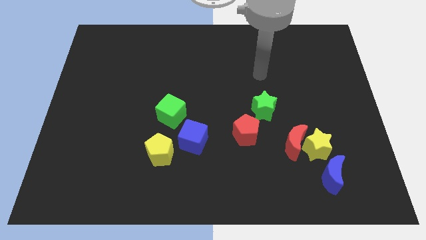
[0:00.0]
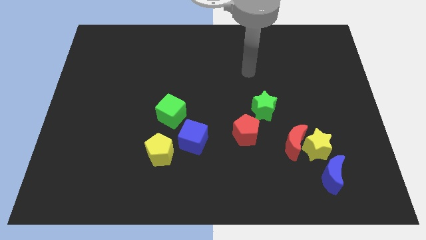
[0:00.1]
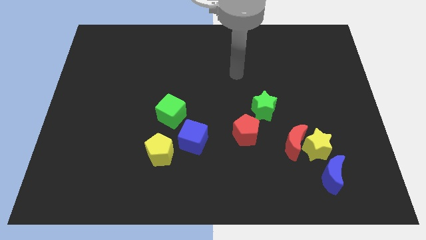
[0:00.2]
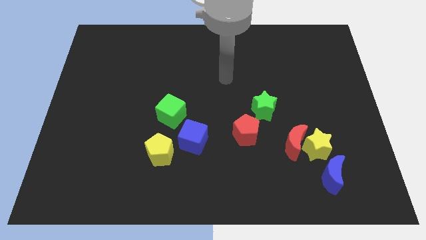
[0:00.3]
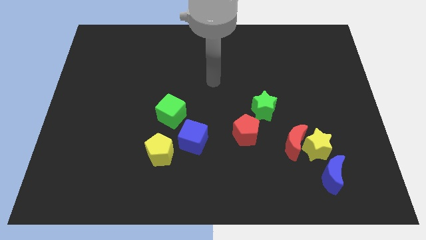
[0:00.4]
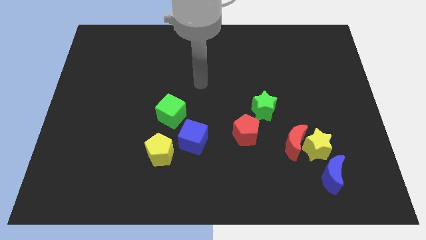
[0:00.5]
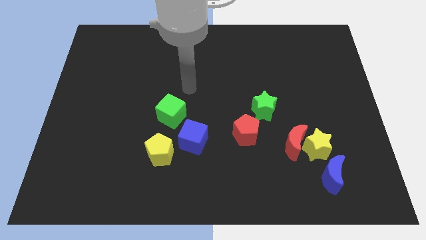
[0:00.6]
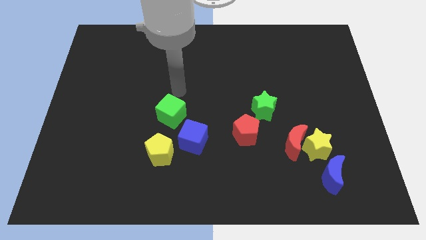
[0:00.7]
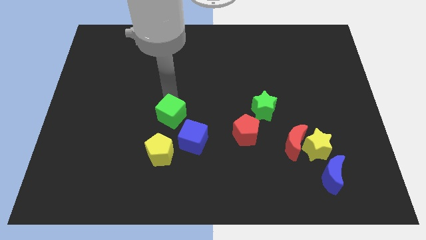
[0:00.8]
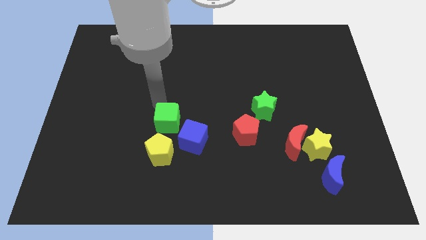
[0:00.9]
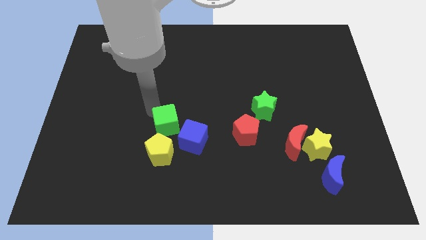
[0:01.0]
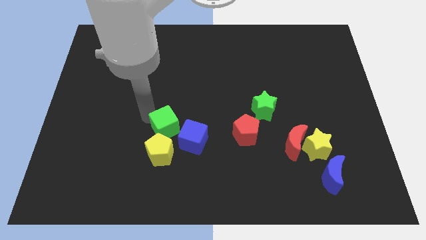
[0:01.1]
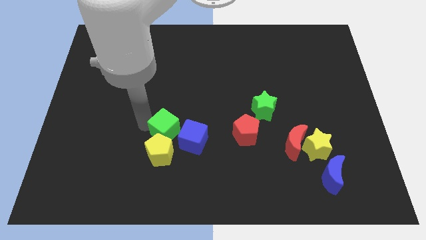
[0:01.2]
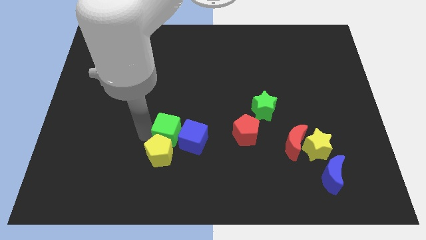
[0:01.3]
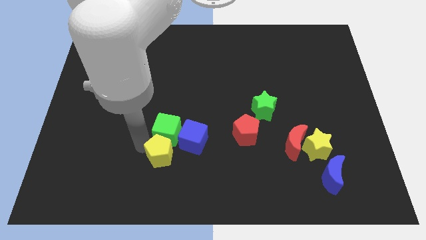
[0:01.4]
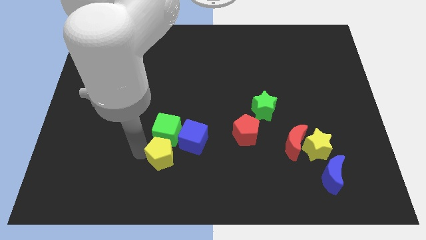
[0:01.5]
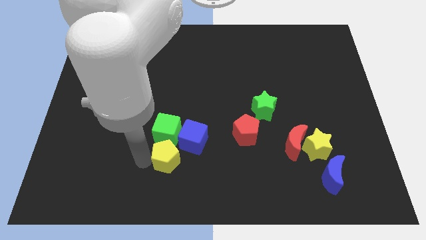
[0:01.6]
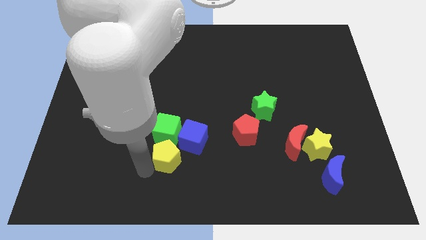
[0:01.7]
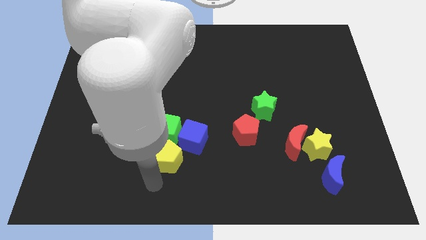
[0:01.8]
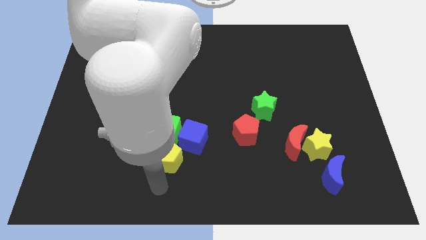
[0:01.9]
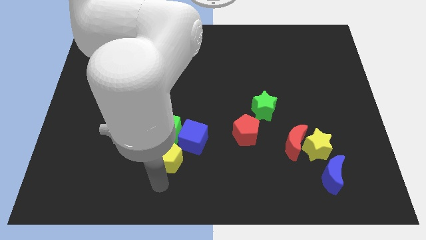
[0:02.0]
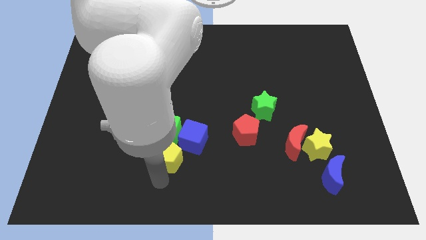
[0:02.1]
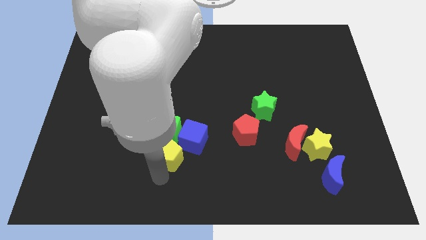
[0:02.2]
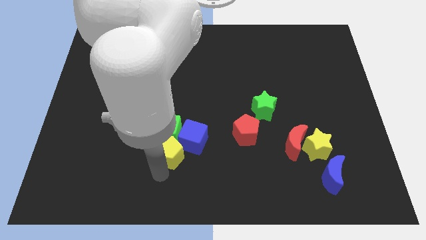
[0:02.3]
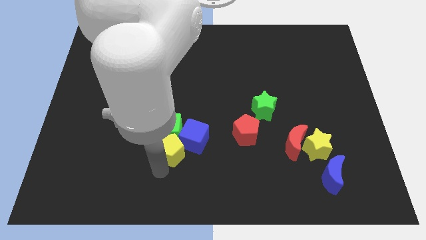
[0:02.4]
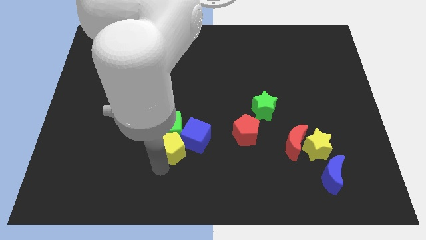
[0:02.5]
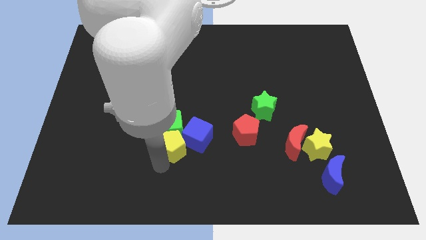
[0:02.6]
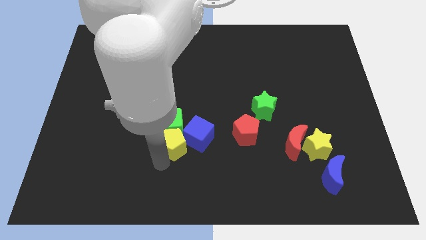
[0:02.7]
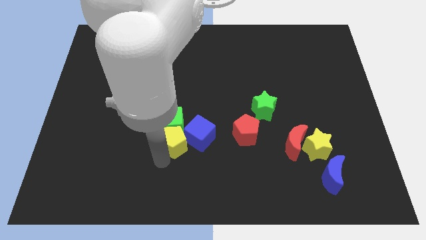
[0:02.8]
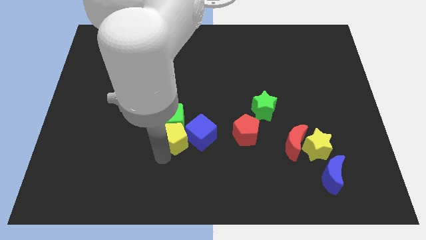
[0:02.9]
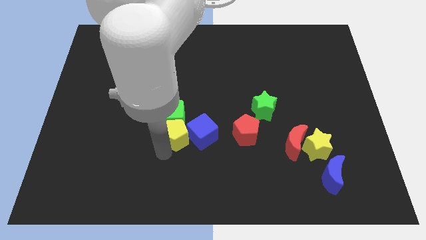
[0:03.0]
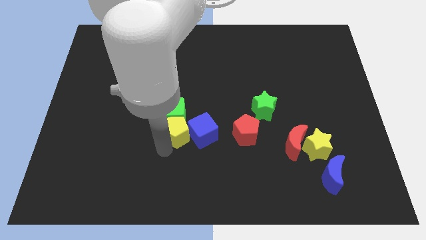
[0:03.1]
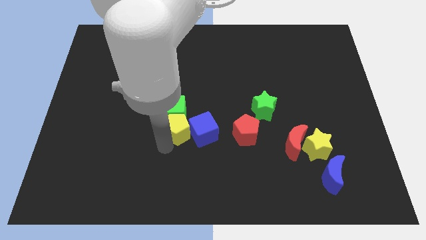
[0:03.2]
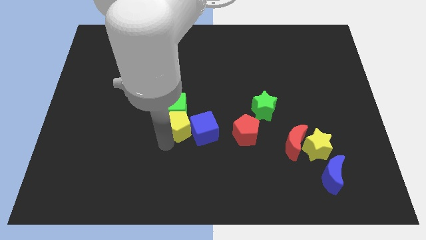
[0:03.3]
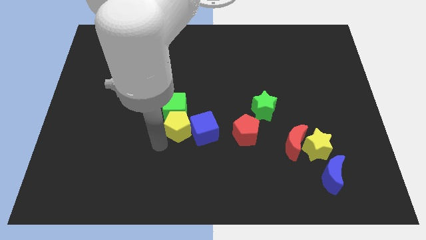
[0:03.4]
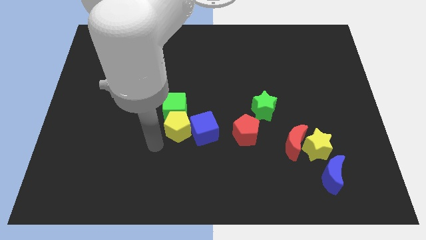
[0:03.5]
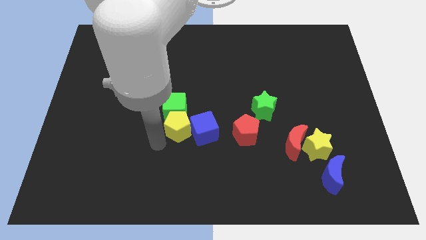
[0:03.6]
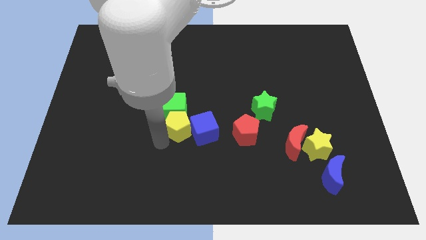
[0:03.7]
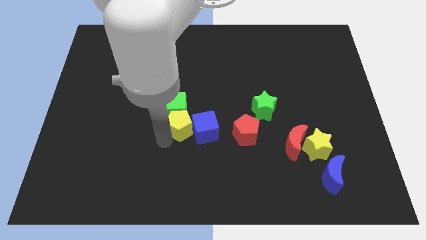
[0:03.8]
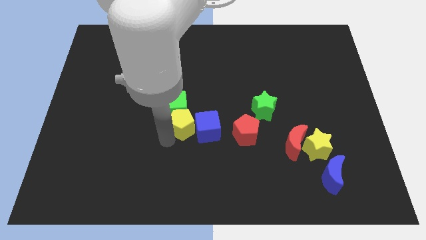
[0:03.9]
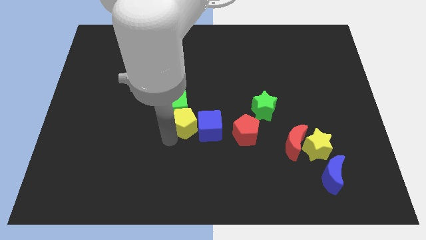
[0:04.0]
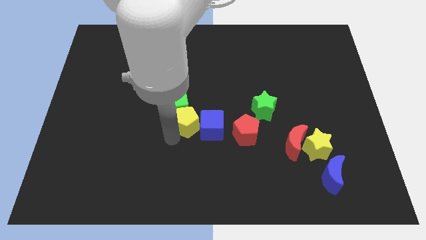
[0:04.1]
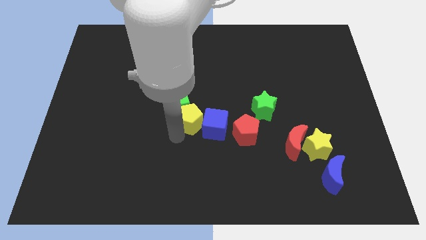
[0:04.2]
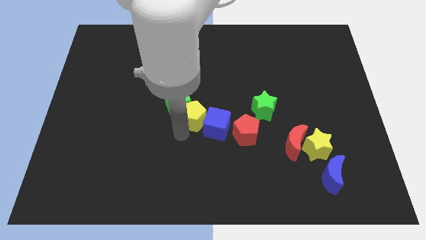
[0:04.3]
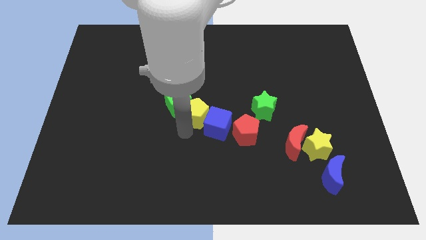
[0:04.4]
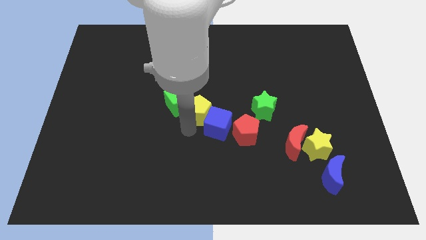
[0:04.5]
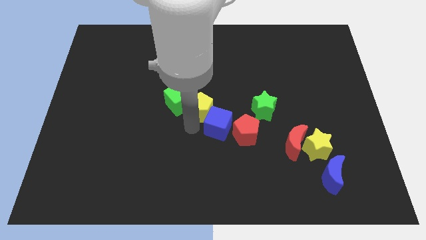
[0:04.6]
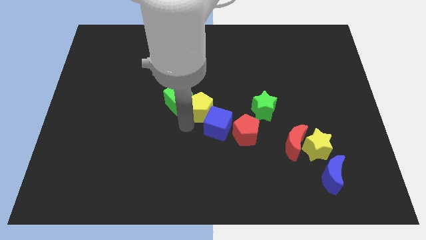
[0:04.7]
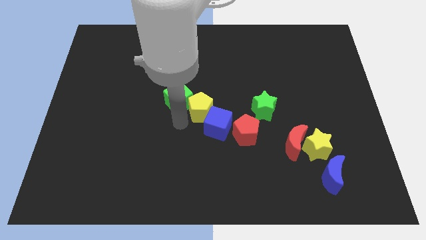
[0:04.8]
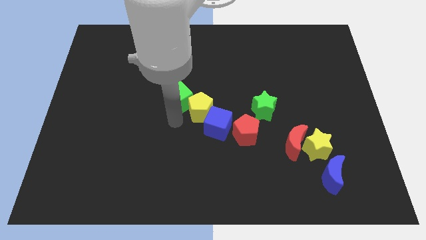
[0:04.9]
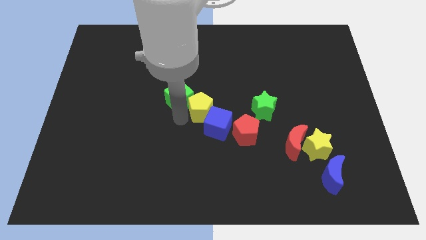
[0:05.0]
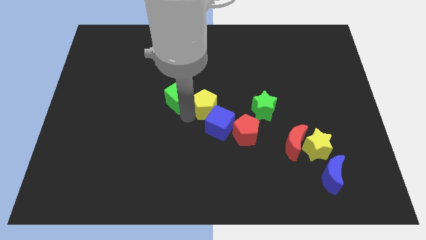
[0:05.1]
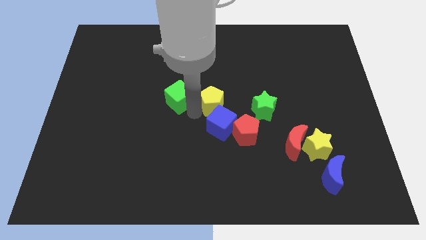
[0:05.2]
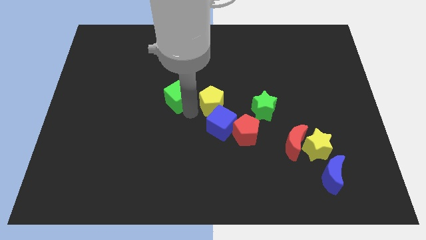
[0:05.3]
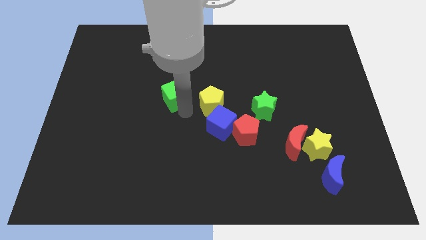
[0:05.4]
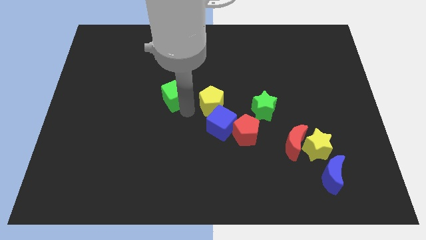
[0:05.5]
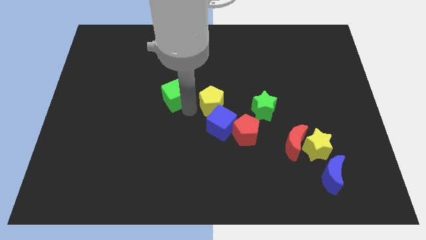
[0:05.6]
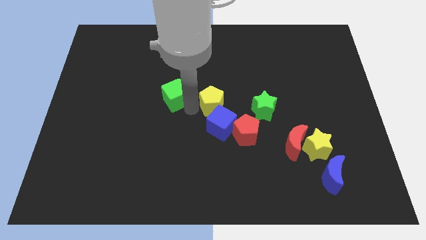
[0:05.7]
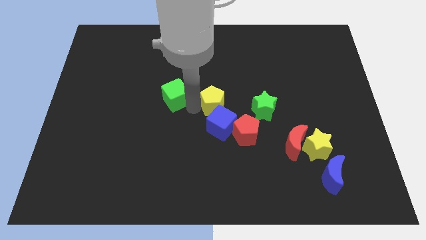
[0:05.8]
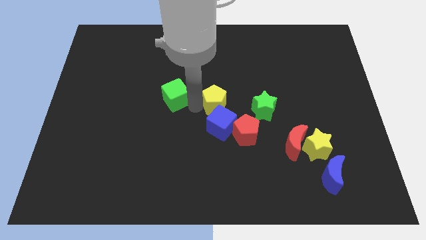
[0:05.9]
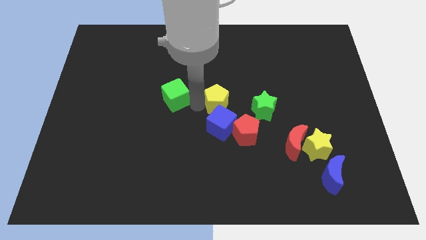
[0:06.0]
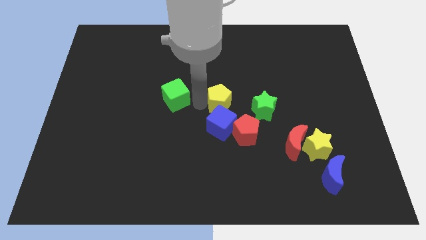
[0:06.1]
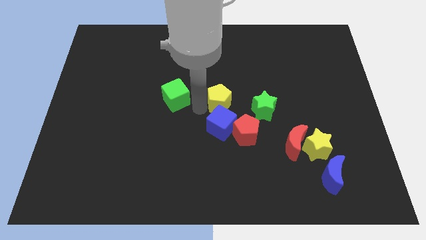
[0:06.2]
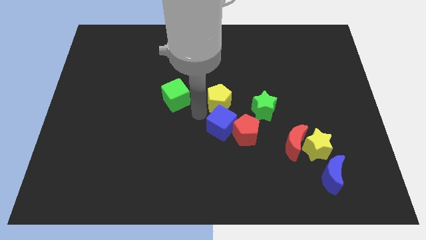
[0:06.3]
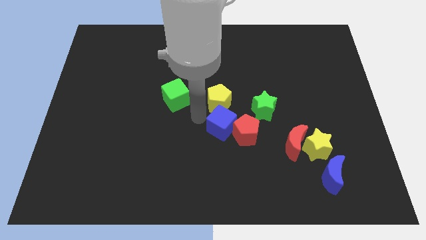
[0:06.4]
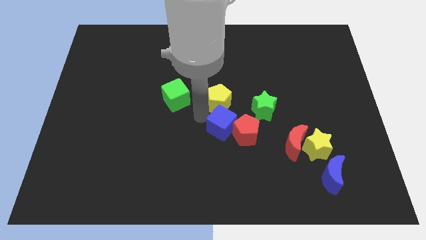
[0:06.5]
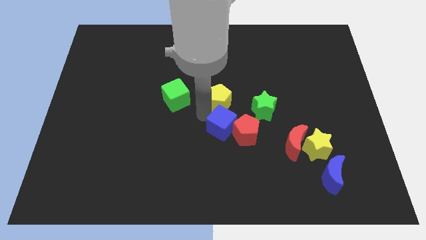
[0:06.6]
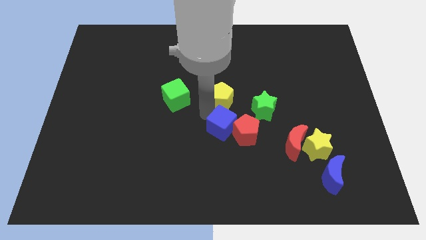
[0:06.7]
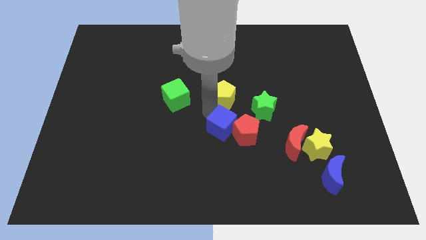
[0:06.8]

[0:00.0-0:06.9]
move the yellow pentagon up and then right

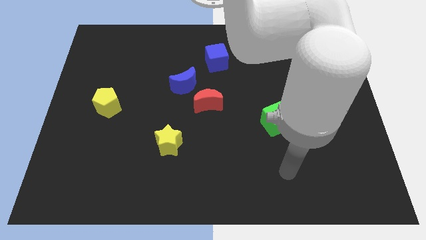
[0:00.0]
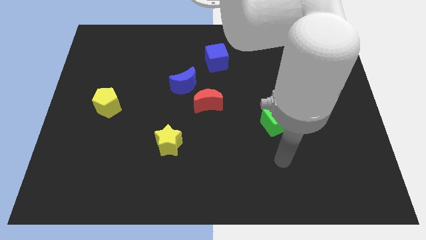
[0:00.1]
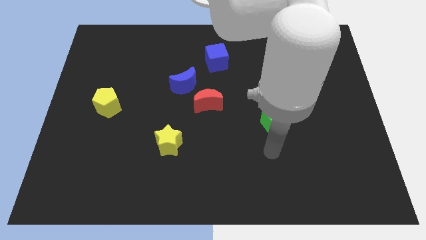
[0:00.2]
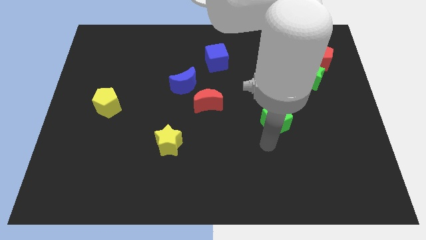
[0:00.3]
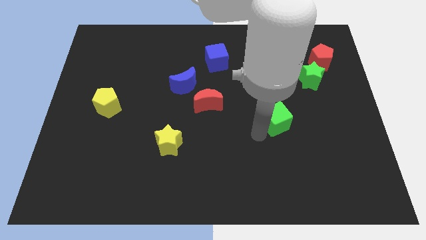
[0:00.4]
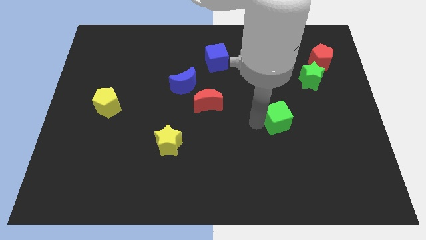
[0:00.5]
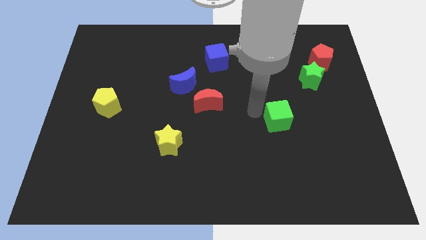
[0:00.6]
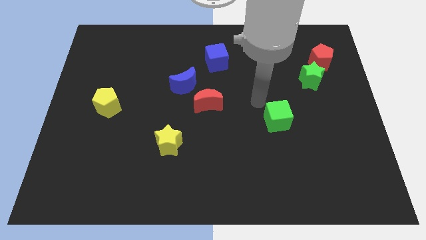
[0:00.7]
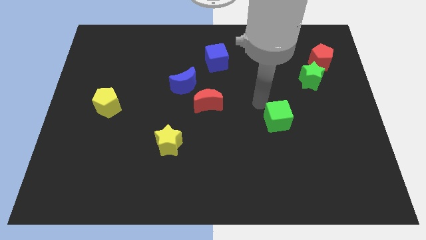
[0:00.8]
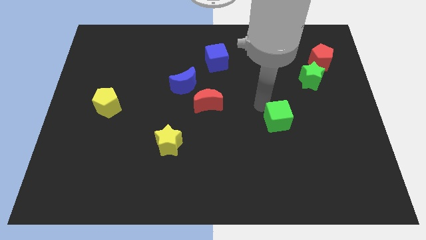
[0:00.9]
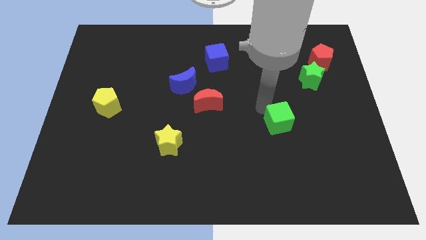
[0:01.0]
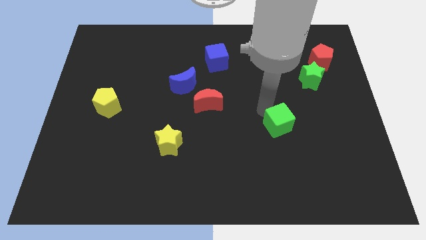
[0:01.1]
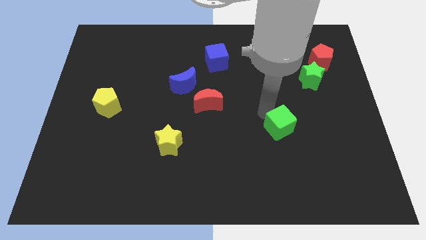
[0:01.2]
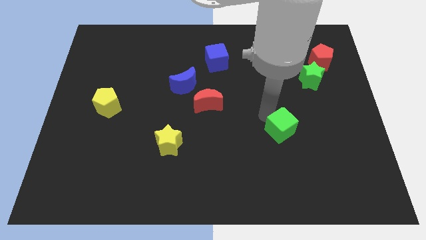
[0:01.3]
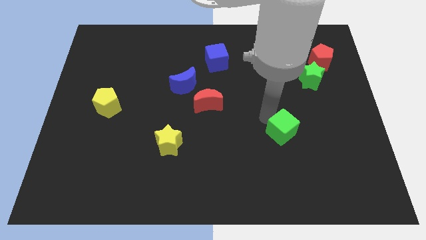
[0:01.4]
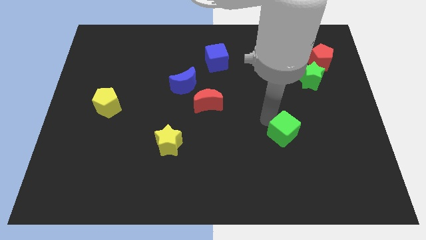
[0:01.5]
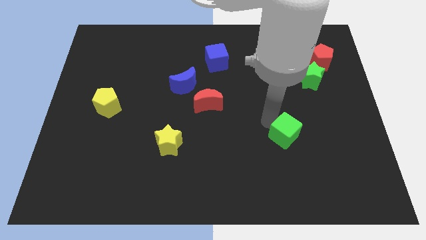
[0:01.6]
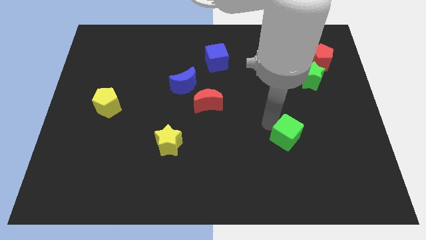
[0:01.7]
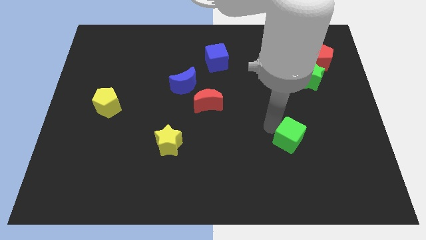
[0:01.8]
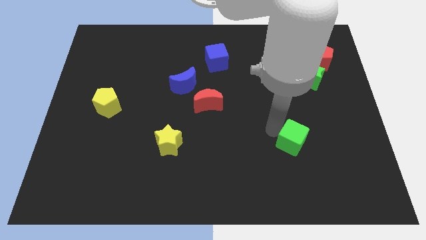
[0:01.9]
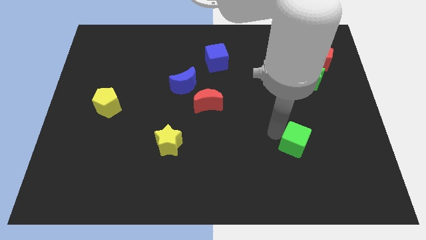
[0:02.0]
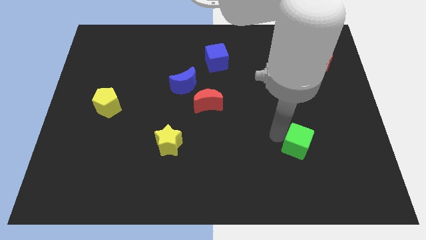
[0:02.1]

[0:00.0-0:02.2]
move the green cube slightly downwards and then right
